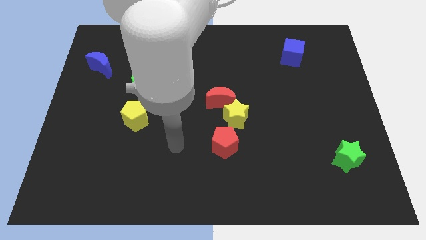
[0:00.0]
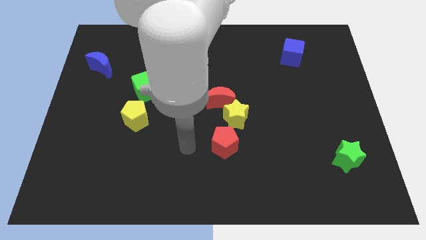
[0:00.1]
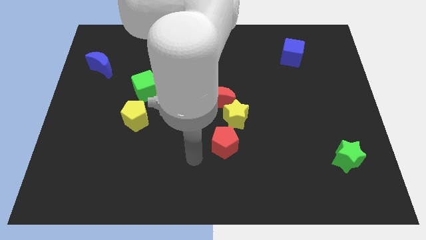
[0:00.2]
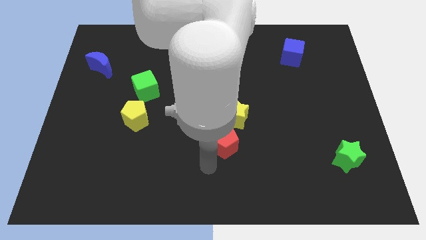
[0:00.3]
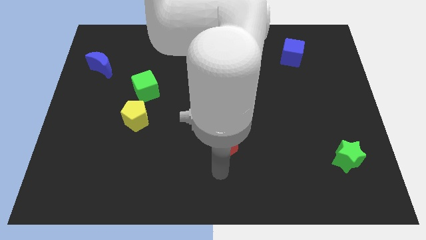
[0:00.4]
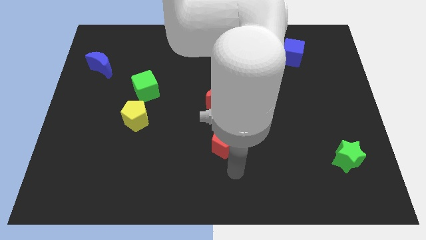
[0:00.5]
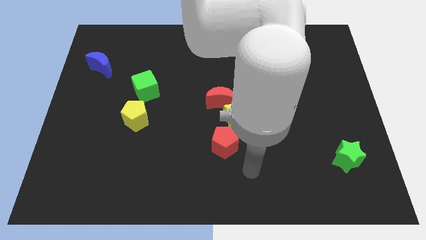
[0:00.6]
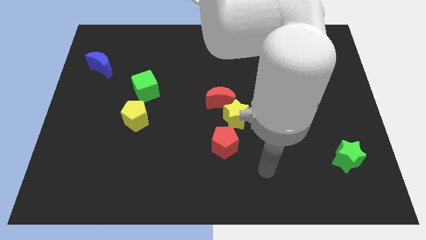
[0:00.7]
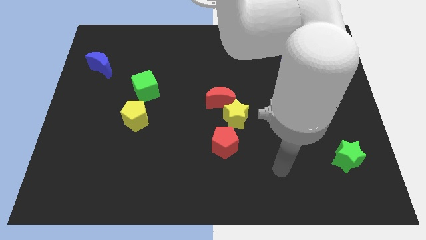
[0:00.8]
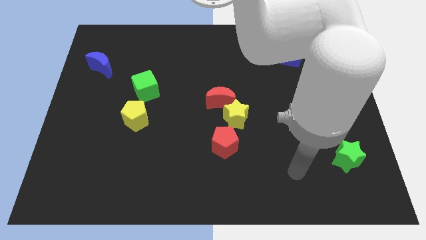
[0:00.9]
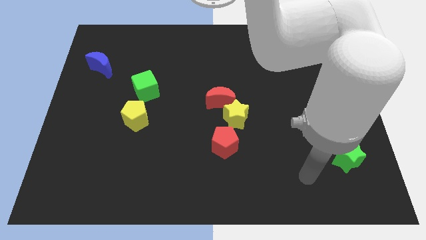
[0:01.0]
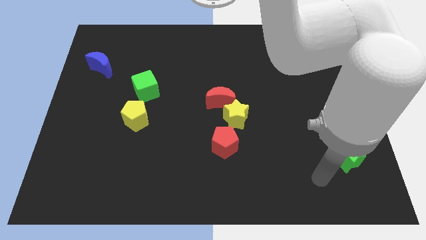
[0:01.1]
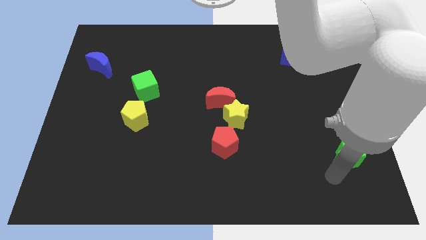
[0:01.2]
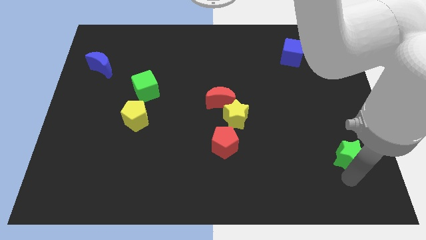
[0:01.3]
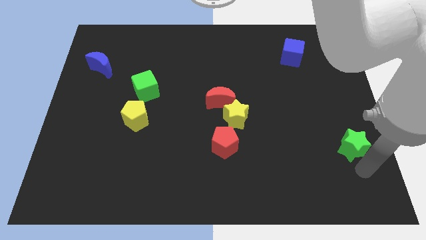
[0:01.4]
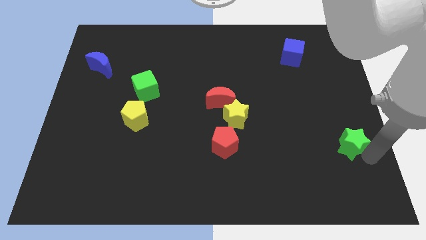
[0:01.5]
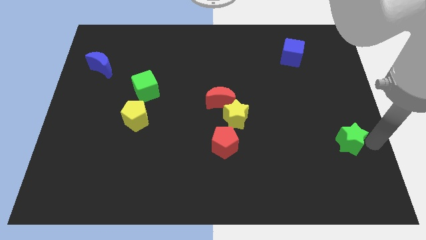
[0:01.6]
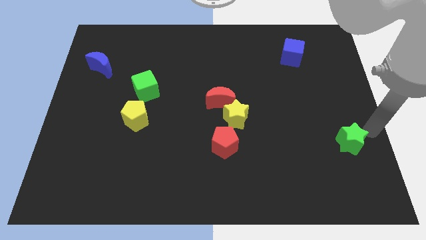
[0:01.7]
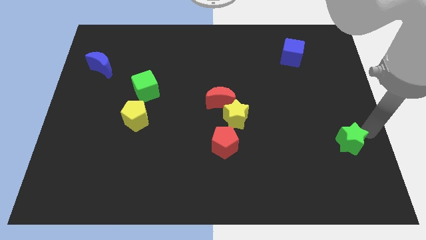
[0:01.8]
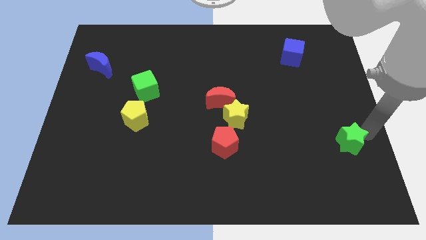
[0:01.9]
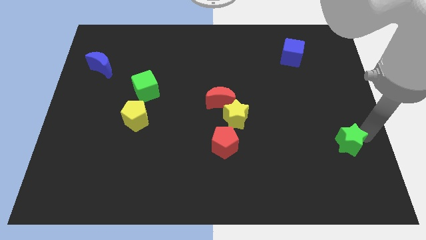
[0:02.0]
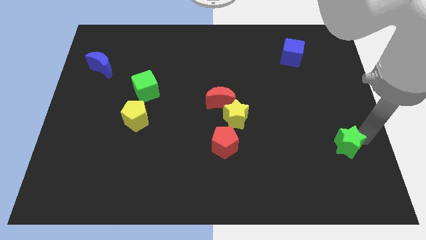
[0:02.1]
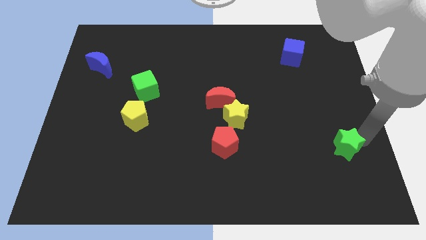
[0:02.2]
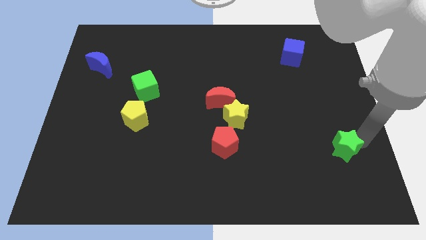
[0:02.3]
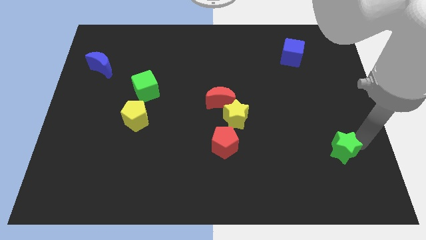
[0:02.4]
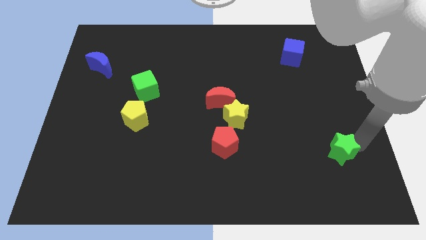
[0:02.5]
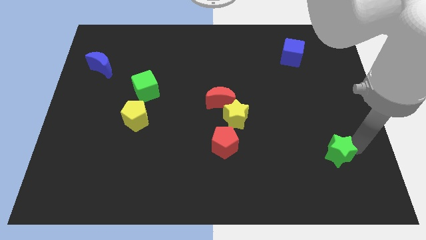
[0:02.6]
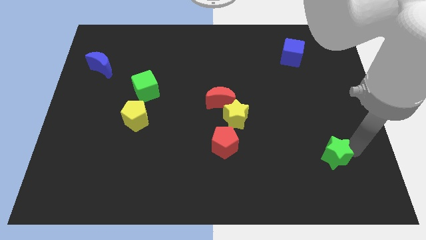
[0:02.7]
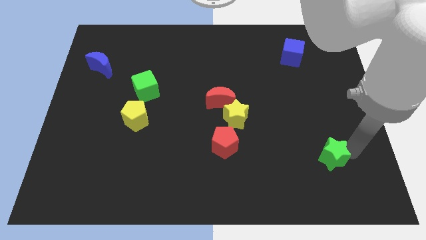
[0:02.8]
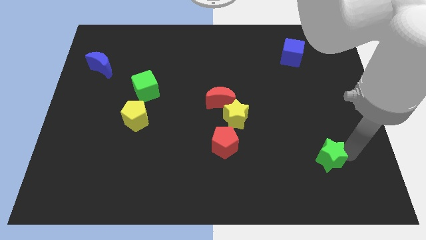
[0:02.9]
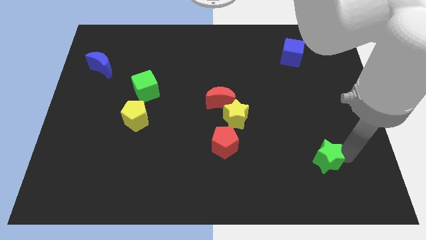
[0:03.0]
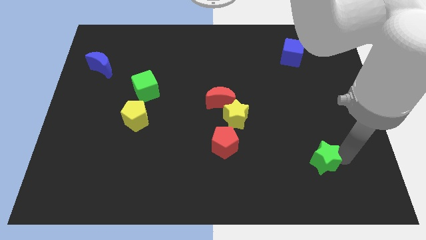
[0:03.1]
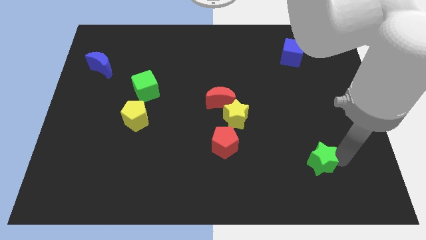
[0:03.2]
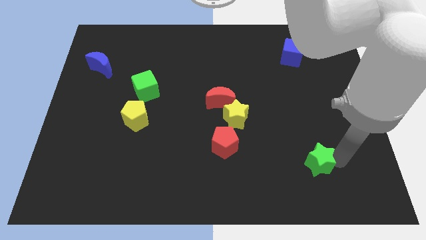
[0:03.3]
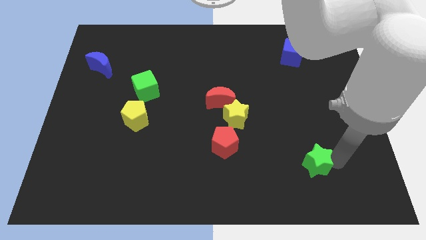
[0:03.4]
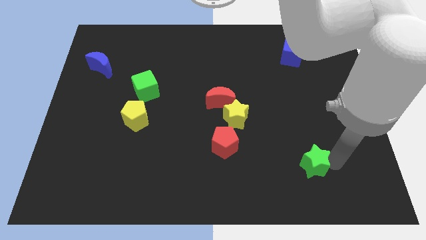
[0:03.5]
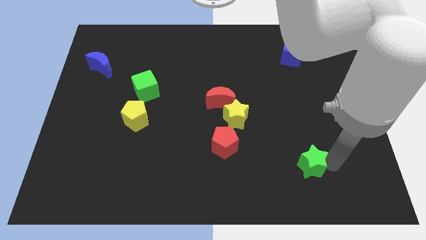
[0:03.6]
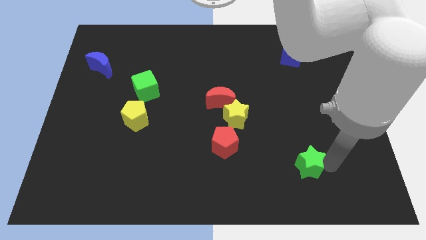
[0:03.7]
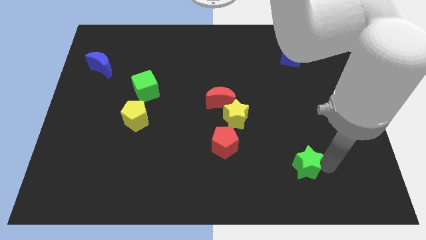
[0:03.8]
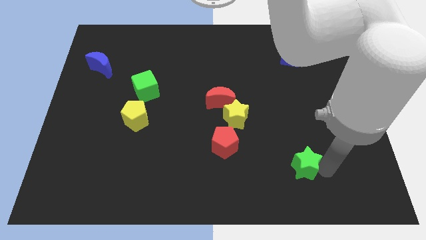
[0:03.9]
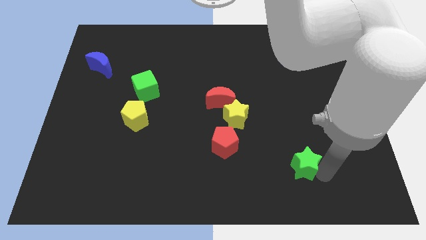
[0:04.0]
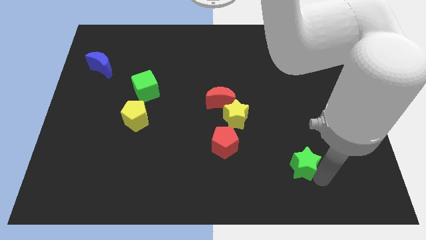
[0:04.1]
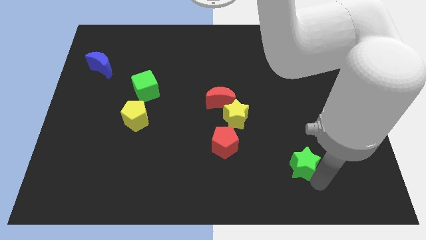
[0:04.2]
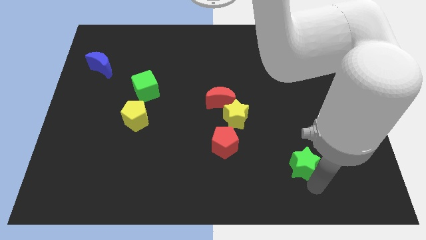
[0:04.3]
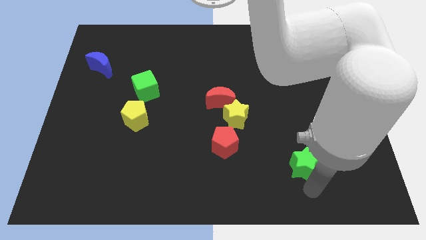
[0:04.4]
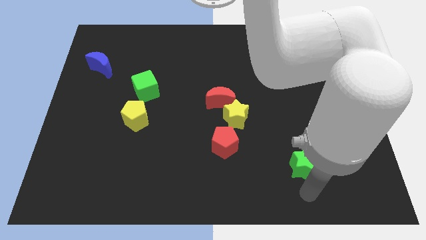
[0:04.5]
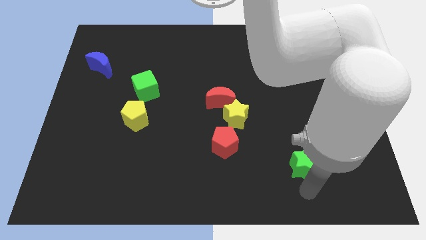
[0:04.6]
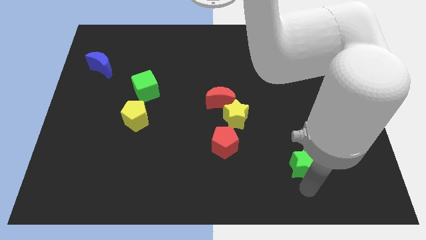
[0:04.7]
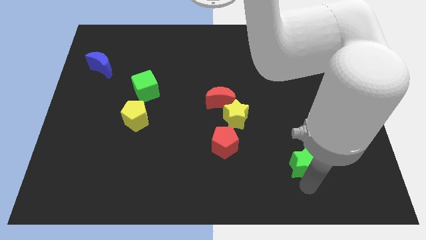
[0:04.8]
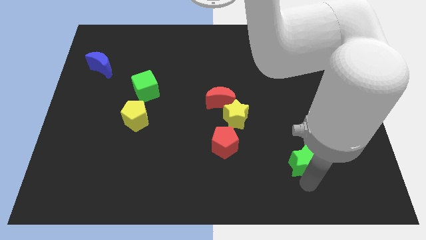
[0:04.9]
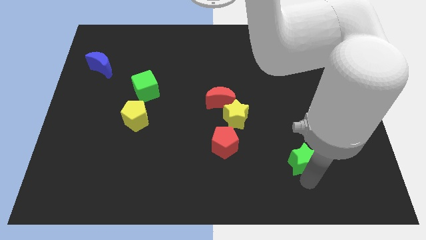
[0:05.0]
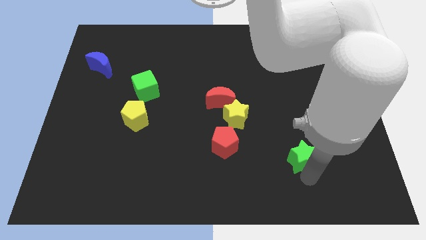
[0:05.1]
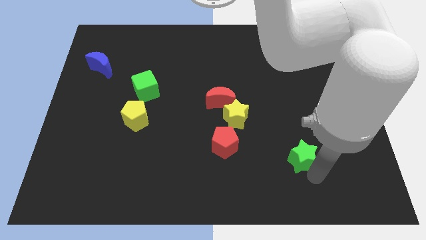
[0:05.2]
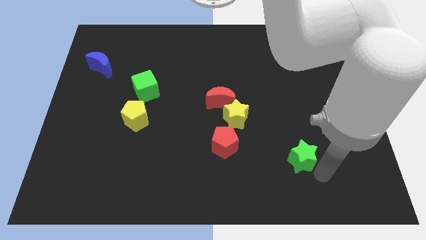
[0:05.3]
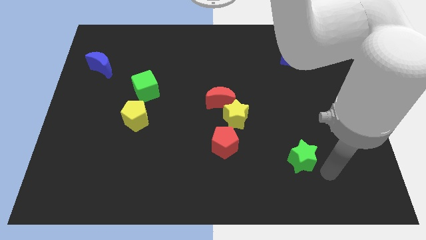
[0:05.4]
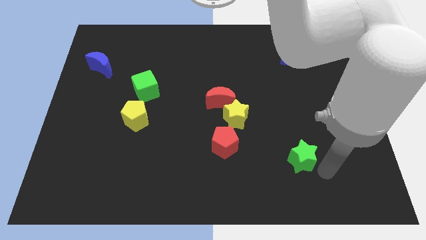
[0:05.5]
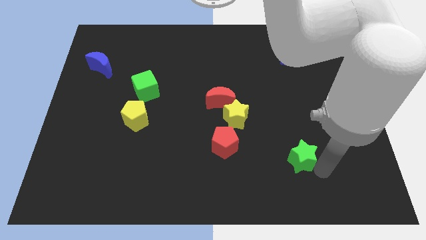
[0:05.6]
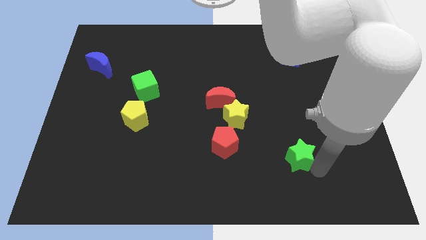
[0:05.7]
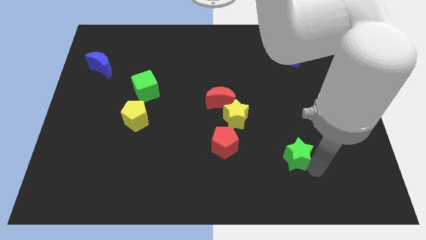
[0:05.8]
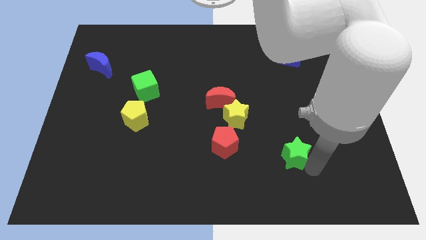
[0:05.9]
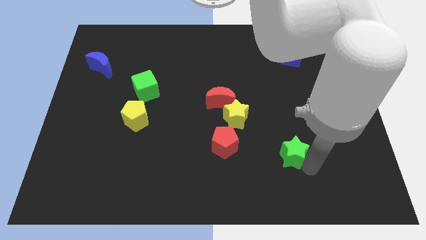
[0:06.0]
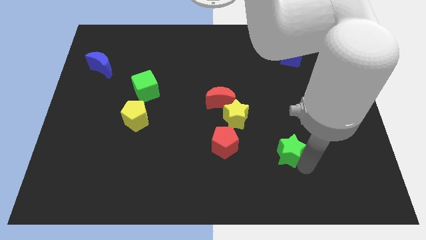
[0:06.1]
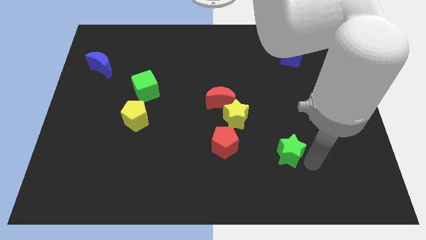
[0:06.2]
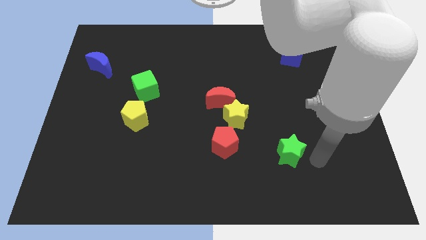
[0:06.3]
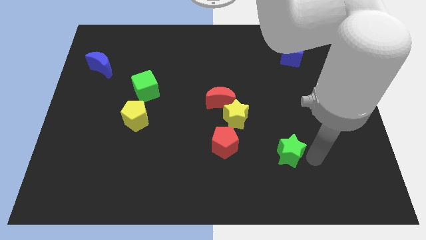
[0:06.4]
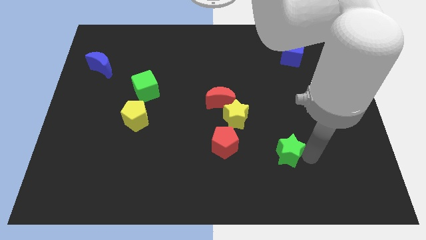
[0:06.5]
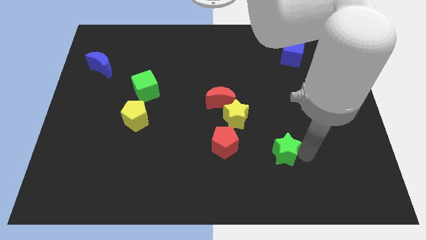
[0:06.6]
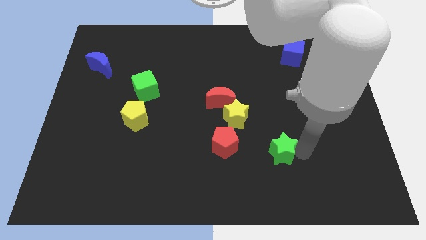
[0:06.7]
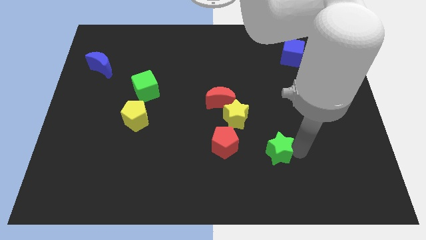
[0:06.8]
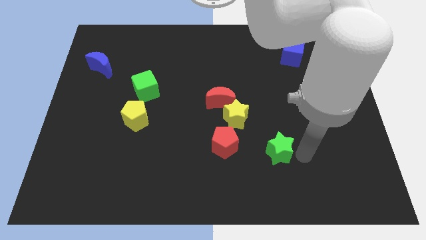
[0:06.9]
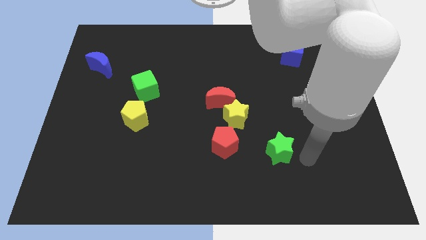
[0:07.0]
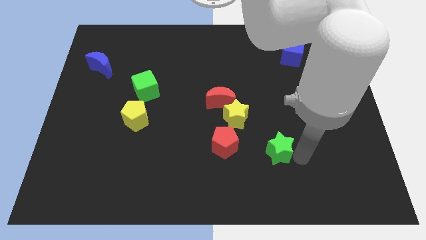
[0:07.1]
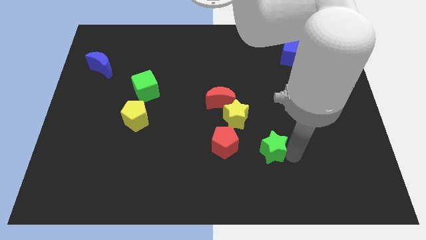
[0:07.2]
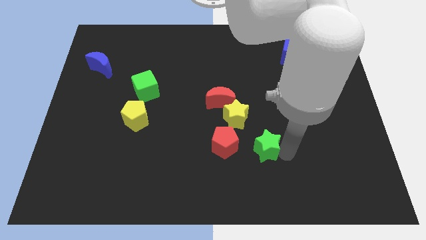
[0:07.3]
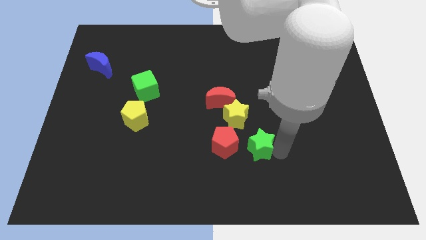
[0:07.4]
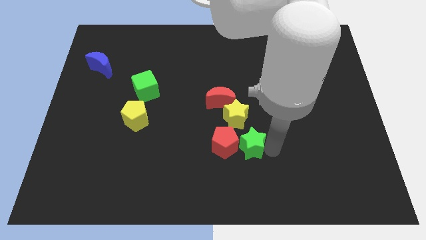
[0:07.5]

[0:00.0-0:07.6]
move the green star towards the red pentagon
